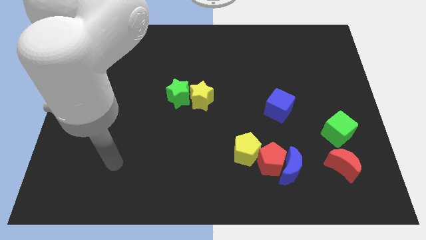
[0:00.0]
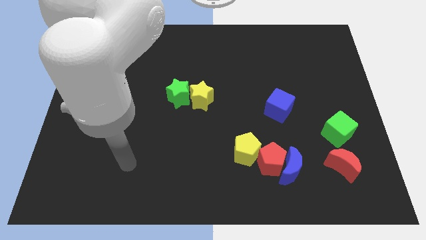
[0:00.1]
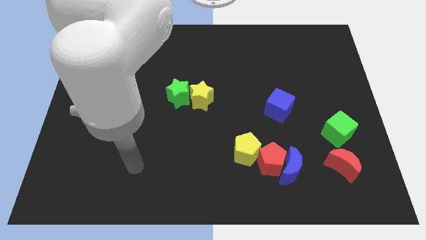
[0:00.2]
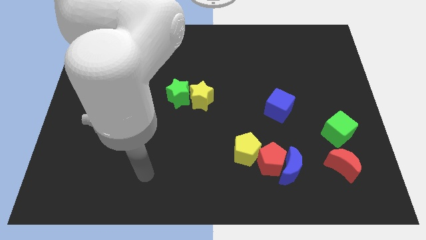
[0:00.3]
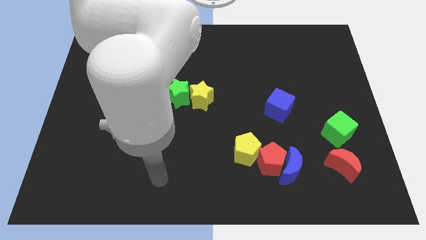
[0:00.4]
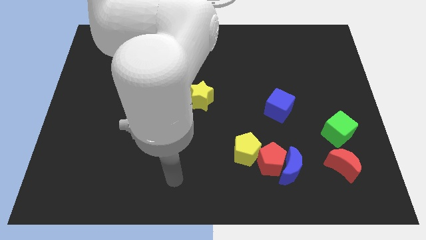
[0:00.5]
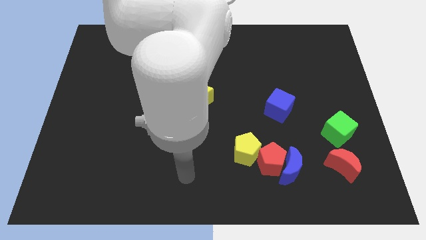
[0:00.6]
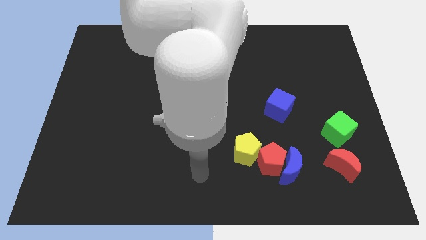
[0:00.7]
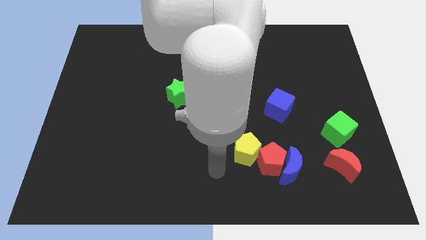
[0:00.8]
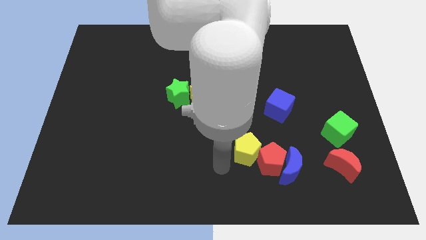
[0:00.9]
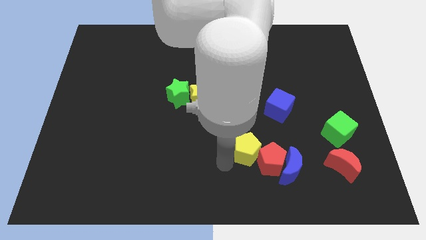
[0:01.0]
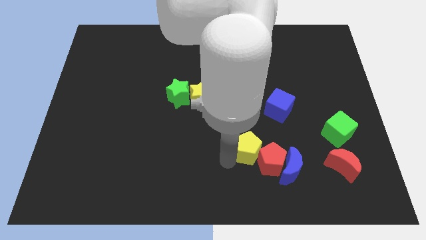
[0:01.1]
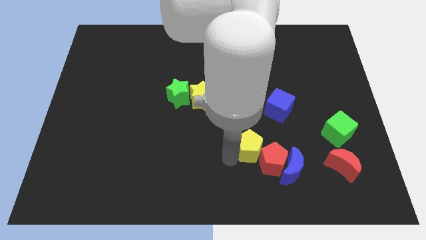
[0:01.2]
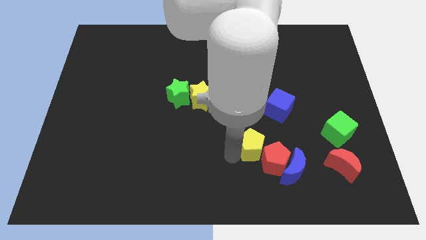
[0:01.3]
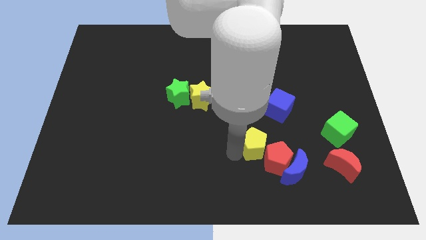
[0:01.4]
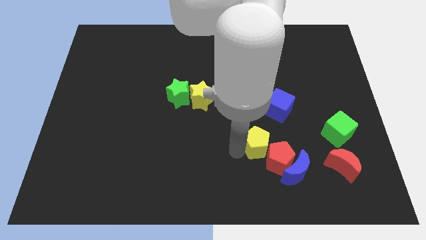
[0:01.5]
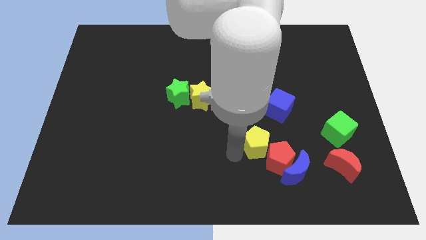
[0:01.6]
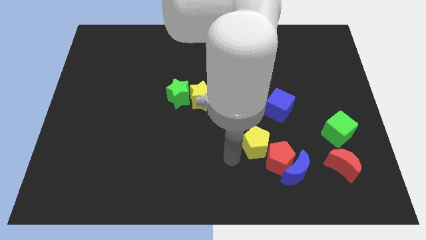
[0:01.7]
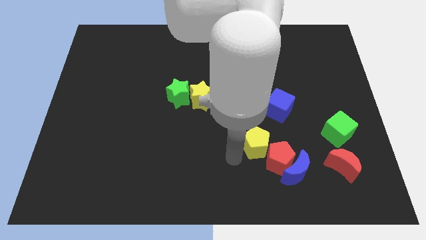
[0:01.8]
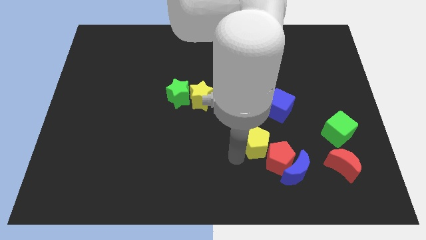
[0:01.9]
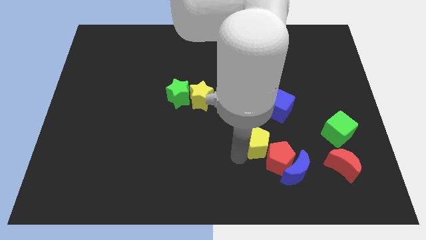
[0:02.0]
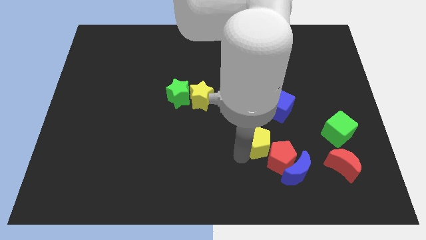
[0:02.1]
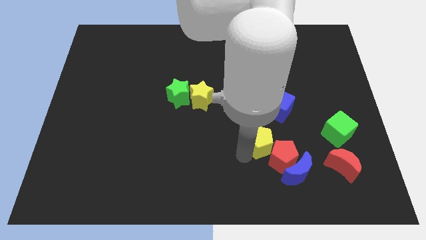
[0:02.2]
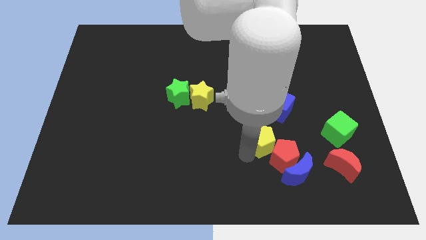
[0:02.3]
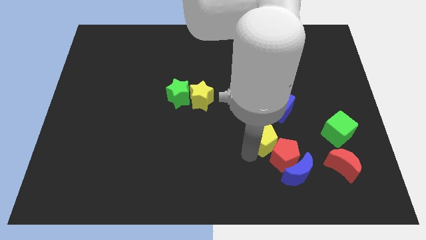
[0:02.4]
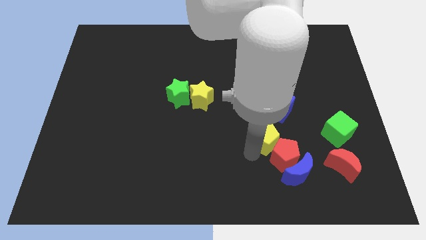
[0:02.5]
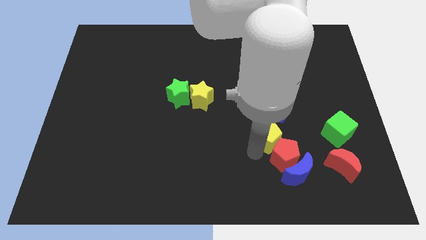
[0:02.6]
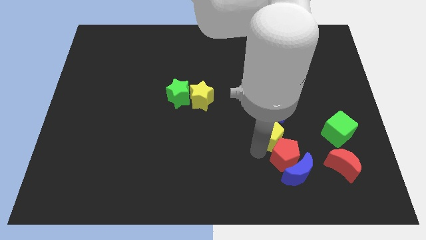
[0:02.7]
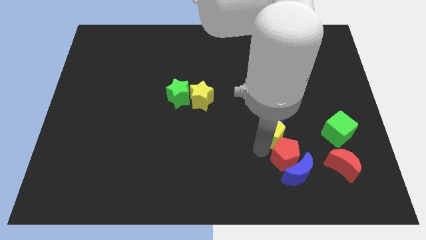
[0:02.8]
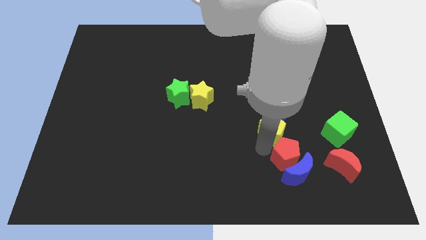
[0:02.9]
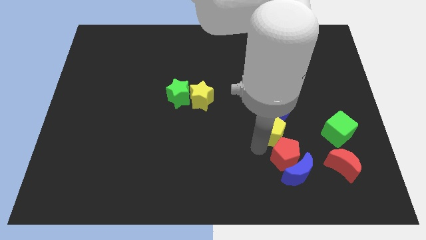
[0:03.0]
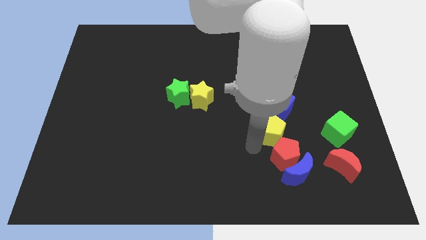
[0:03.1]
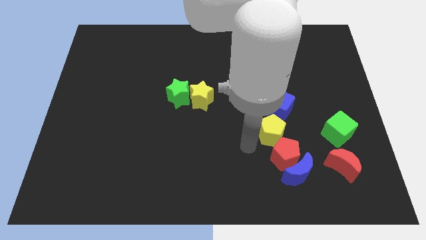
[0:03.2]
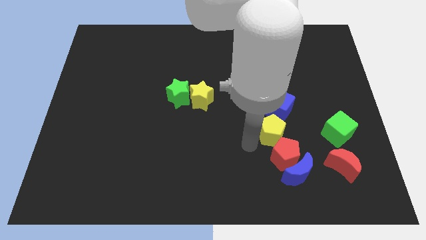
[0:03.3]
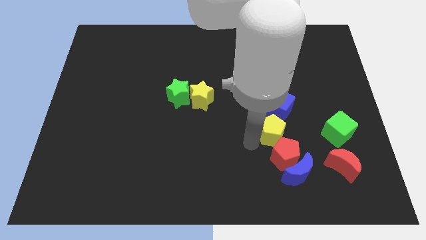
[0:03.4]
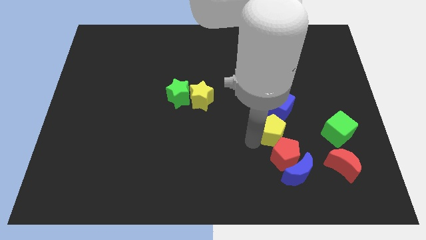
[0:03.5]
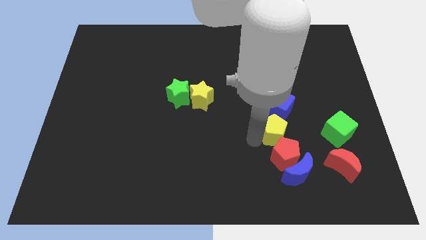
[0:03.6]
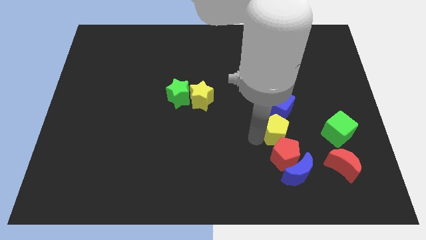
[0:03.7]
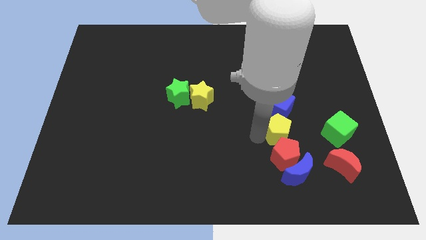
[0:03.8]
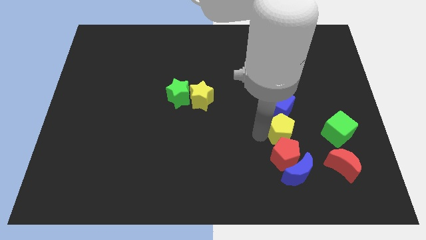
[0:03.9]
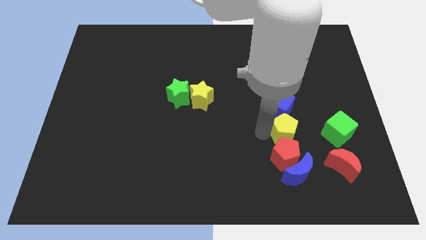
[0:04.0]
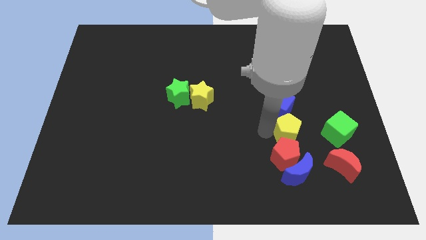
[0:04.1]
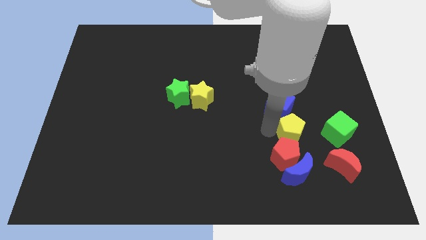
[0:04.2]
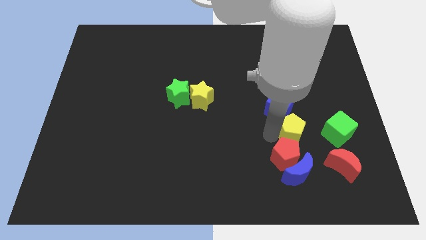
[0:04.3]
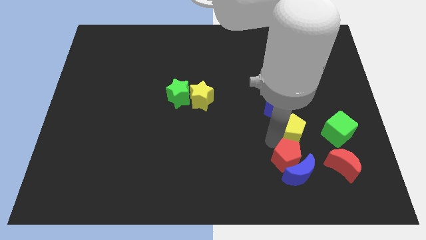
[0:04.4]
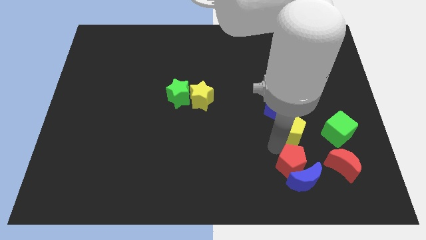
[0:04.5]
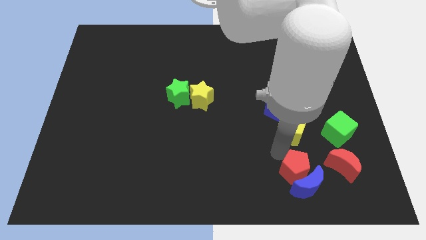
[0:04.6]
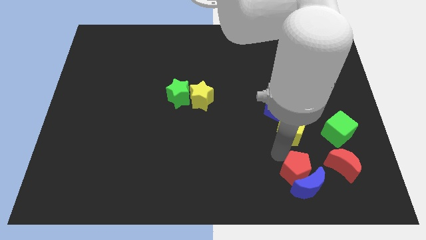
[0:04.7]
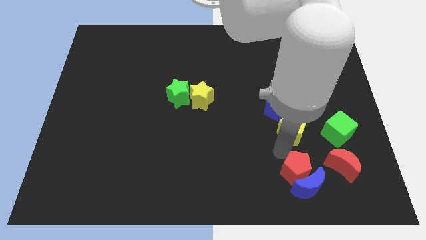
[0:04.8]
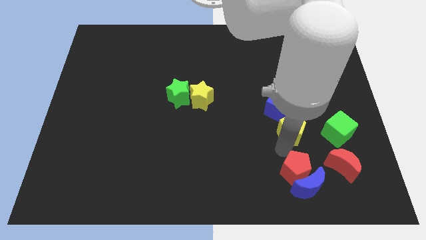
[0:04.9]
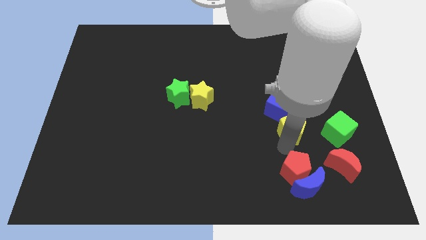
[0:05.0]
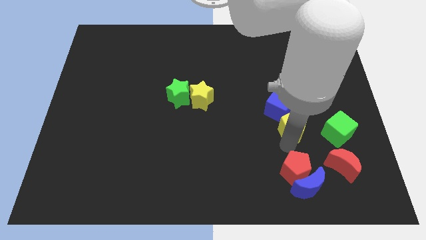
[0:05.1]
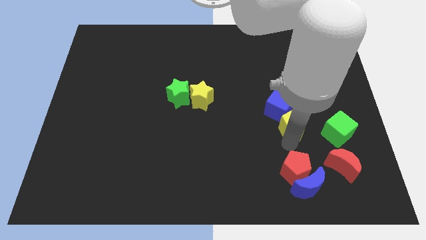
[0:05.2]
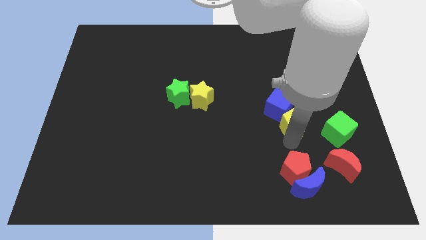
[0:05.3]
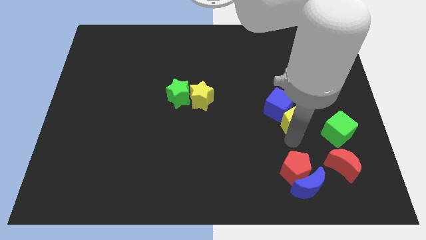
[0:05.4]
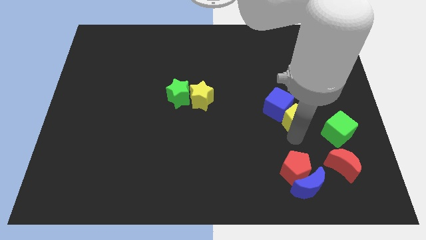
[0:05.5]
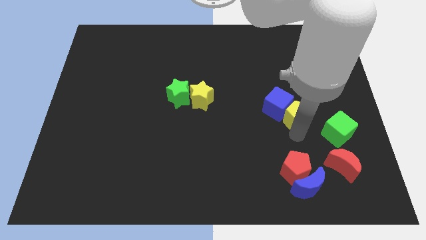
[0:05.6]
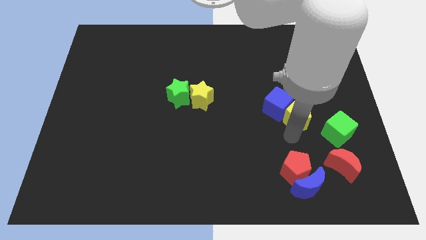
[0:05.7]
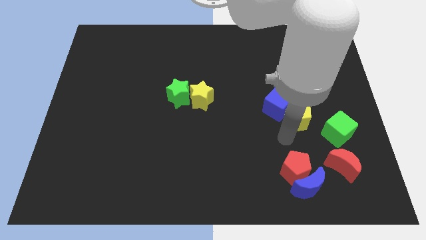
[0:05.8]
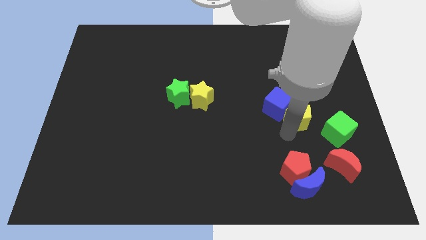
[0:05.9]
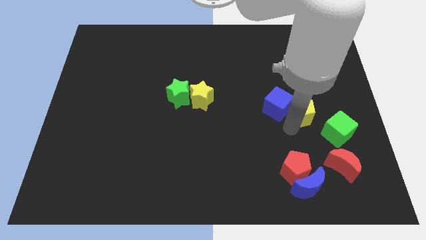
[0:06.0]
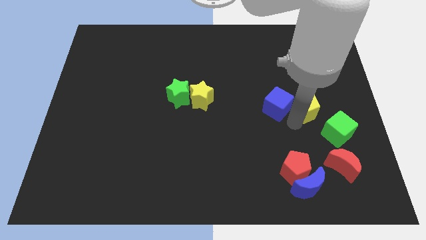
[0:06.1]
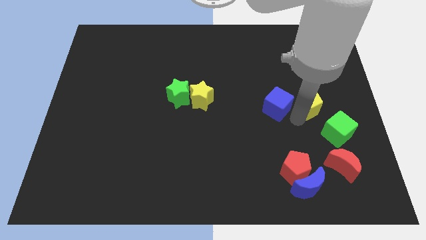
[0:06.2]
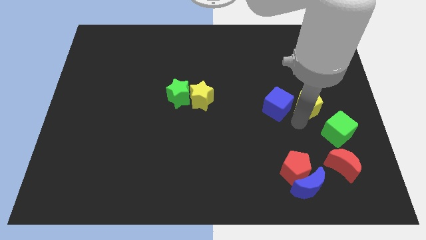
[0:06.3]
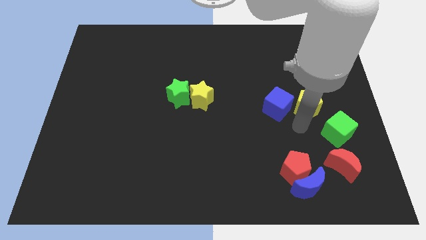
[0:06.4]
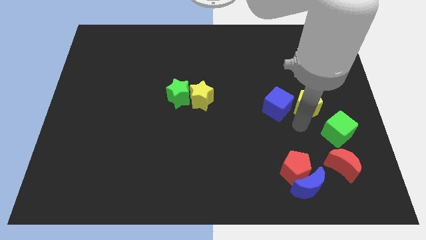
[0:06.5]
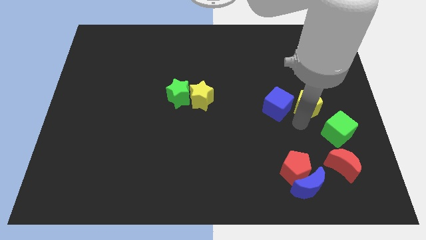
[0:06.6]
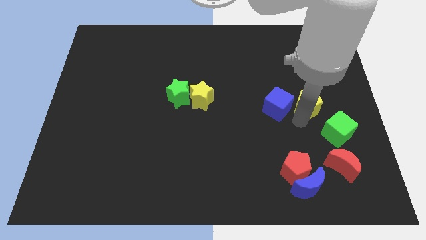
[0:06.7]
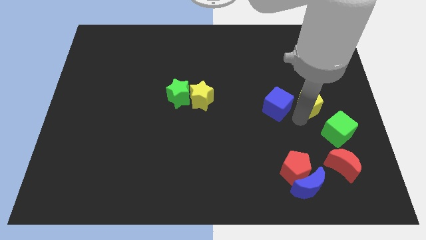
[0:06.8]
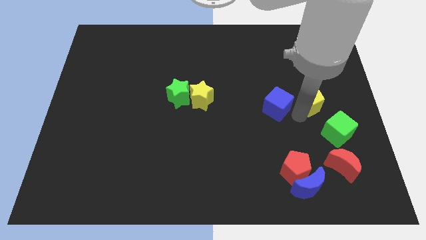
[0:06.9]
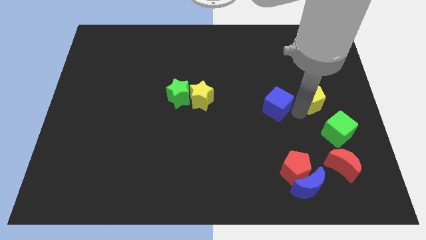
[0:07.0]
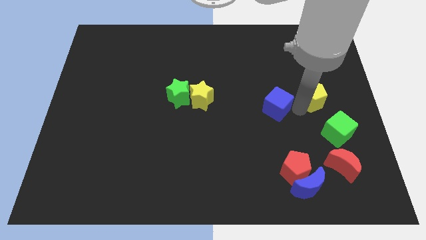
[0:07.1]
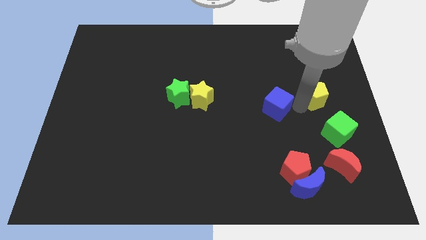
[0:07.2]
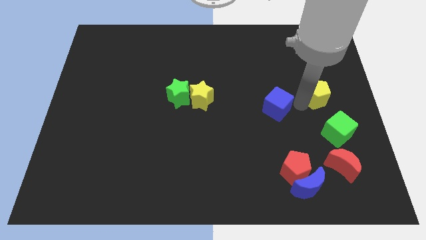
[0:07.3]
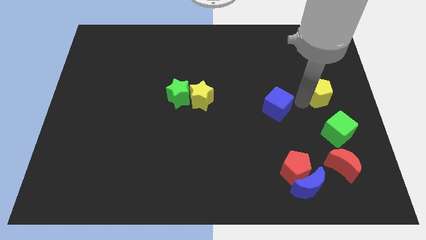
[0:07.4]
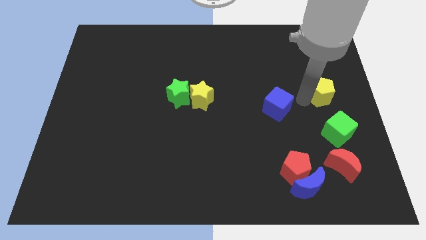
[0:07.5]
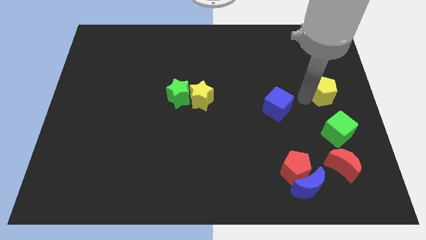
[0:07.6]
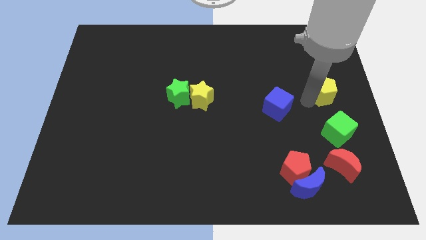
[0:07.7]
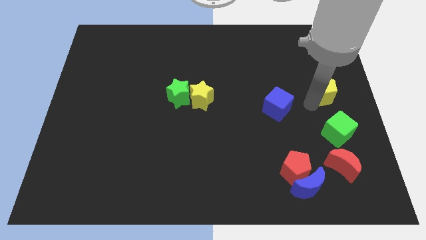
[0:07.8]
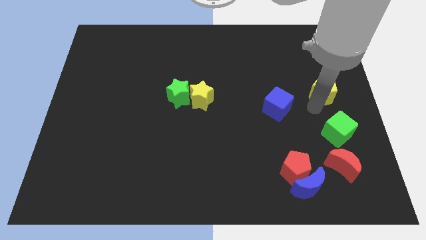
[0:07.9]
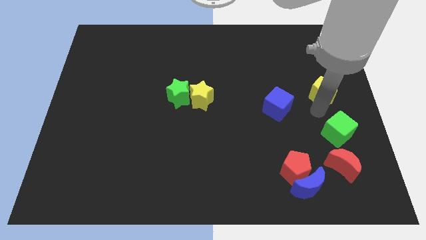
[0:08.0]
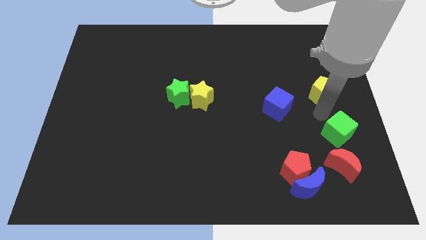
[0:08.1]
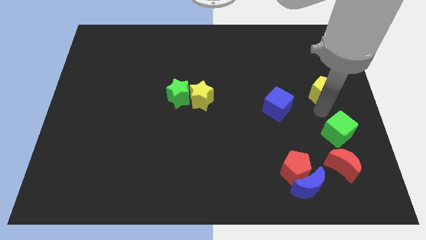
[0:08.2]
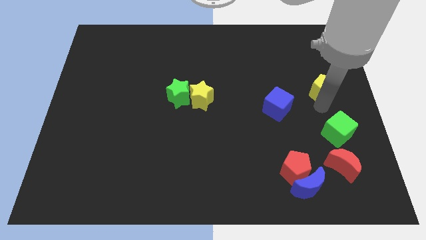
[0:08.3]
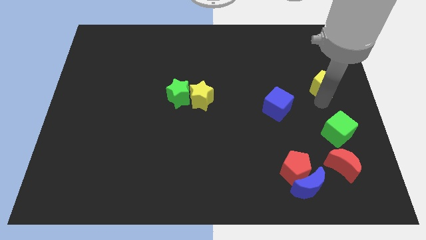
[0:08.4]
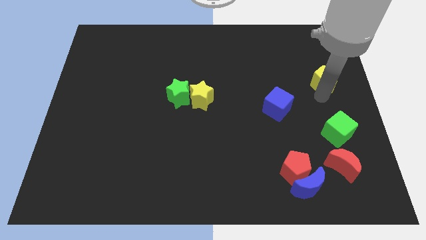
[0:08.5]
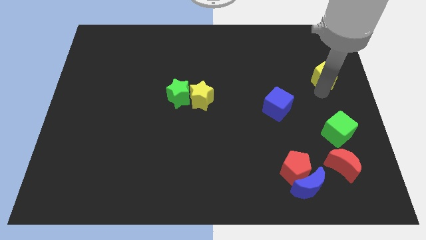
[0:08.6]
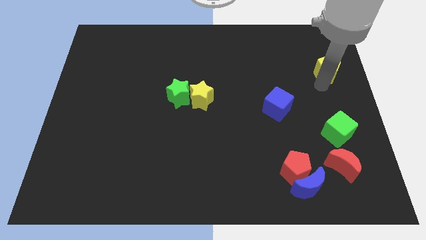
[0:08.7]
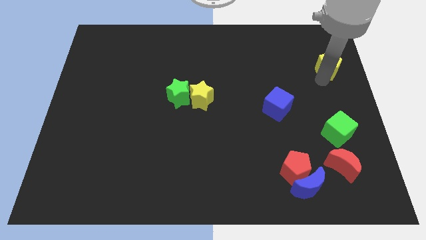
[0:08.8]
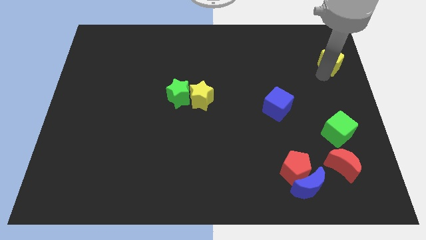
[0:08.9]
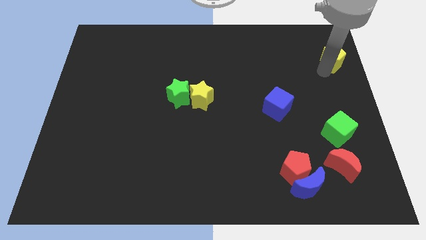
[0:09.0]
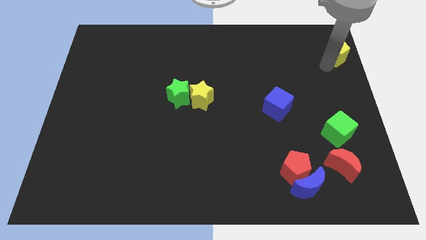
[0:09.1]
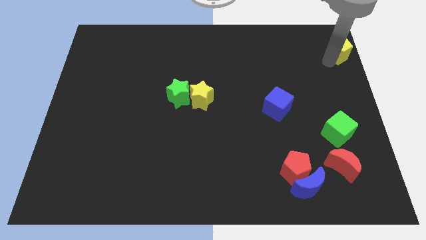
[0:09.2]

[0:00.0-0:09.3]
move the yellow pentagon to the top right
